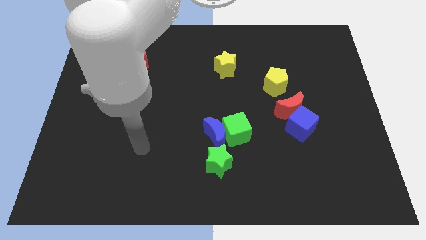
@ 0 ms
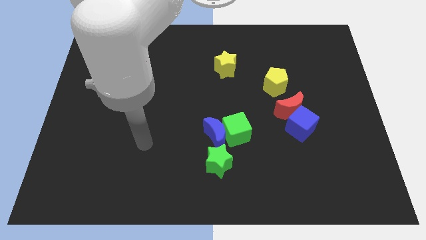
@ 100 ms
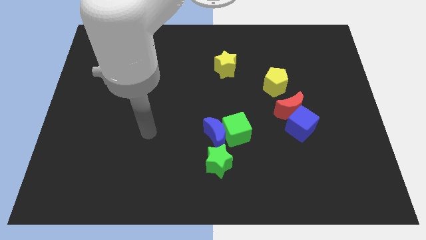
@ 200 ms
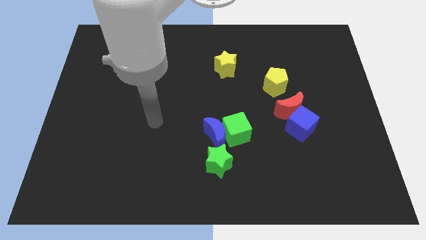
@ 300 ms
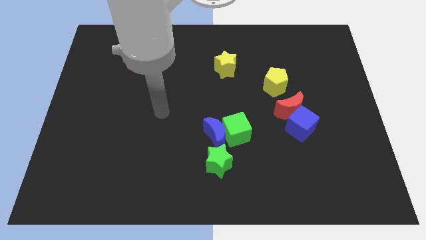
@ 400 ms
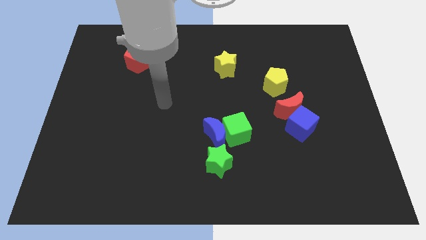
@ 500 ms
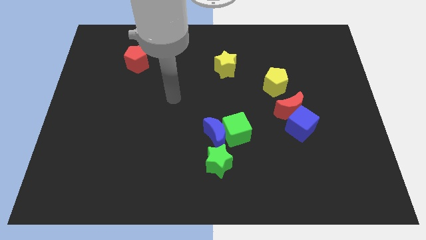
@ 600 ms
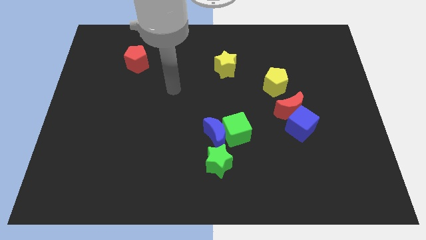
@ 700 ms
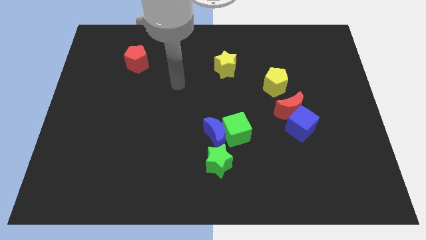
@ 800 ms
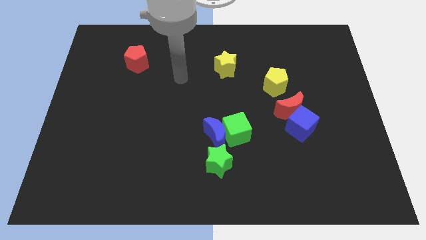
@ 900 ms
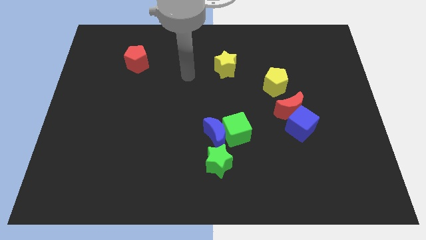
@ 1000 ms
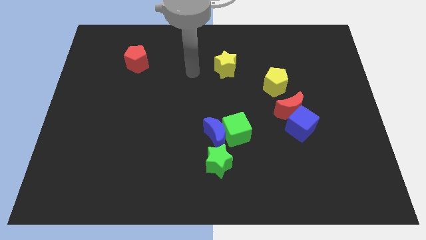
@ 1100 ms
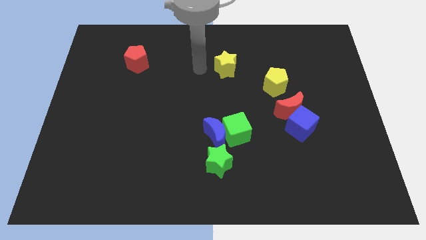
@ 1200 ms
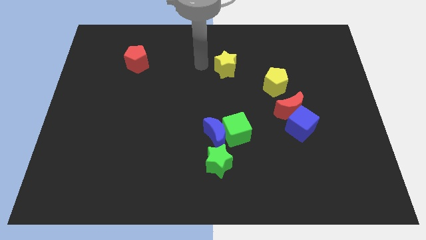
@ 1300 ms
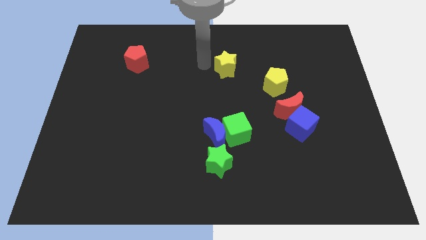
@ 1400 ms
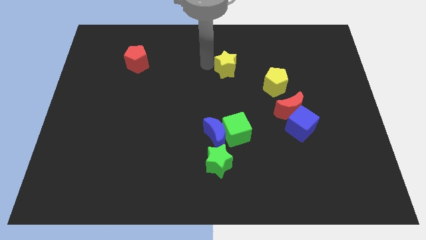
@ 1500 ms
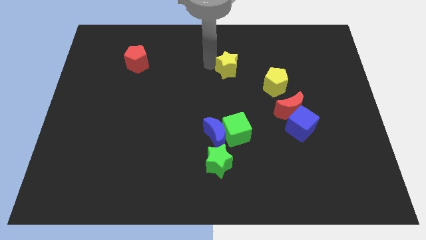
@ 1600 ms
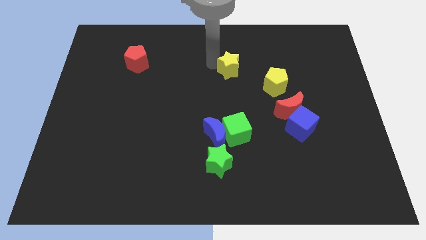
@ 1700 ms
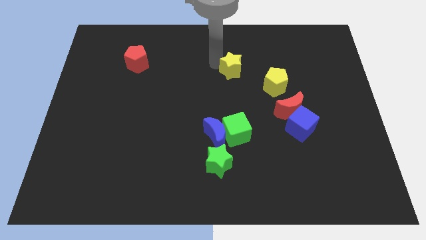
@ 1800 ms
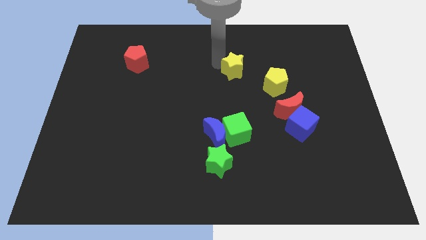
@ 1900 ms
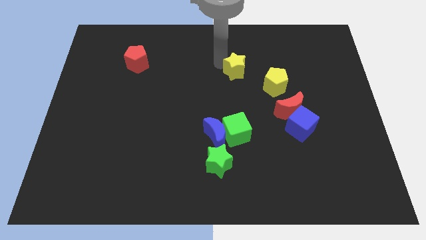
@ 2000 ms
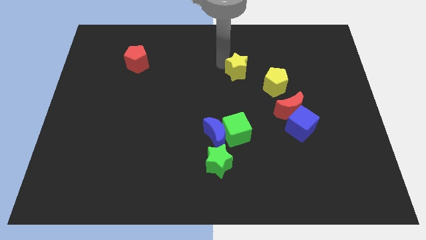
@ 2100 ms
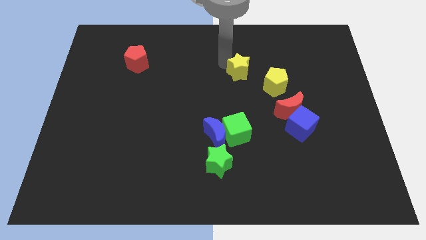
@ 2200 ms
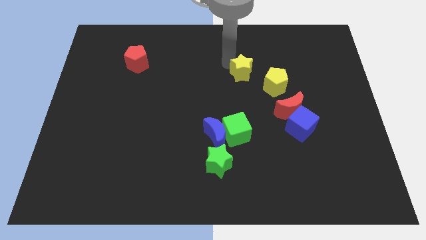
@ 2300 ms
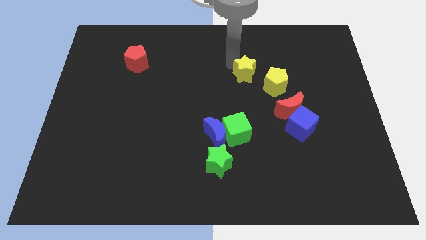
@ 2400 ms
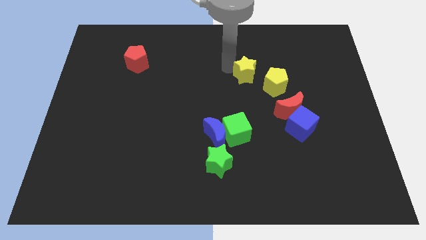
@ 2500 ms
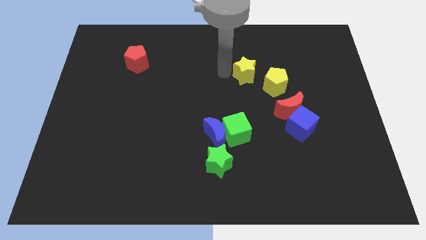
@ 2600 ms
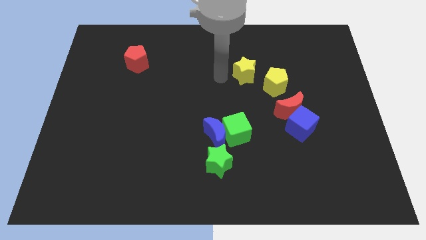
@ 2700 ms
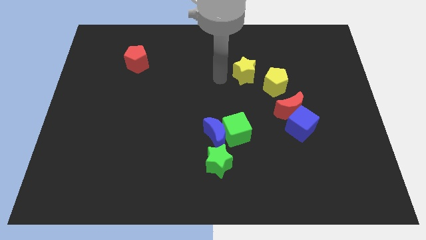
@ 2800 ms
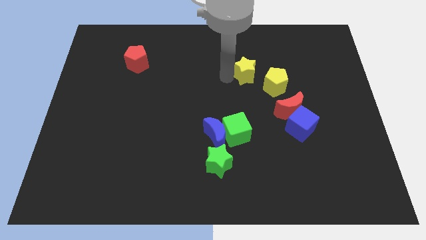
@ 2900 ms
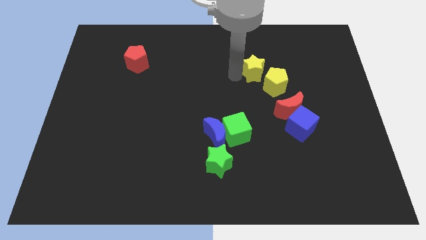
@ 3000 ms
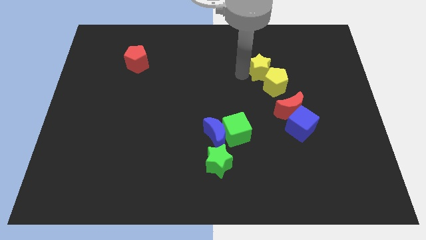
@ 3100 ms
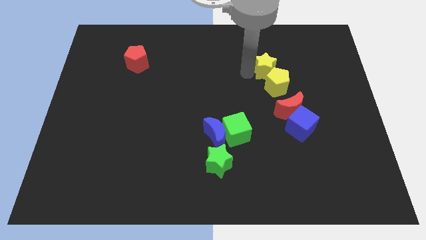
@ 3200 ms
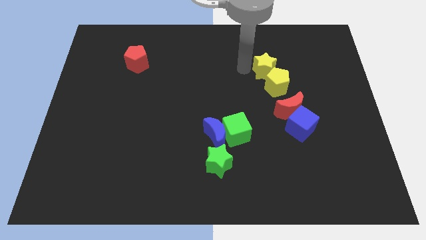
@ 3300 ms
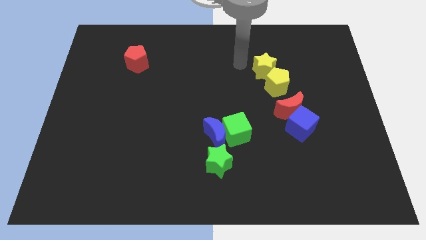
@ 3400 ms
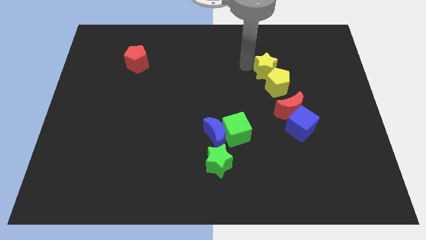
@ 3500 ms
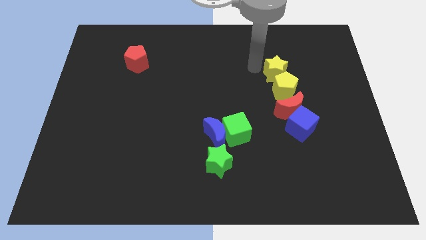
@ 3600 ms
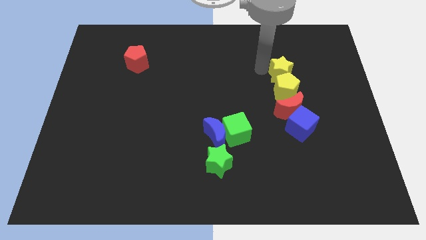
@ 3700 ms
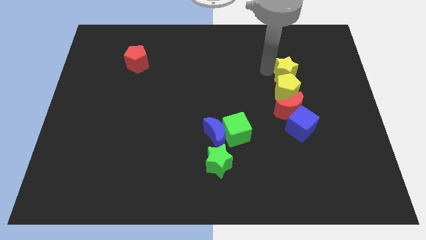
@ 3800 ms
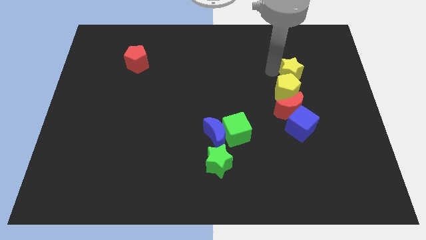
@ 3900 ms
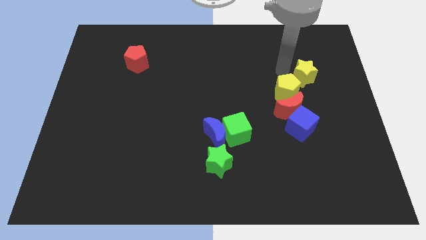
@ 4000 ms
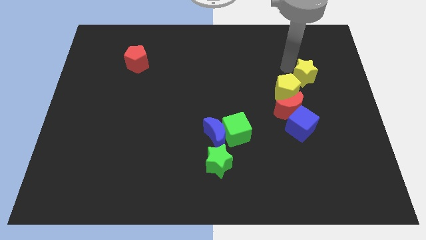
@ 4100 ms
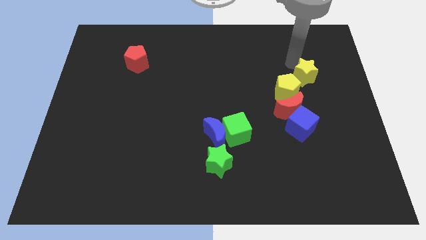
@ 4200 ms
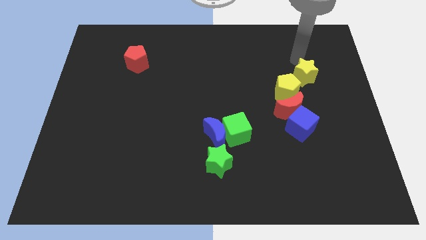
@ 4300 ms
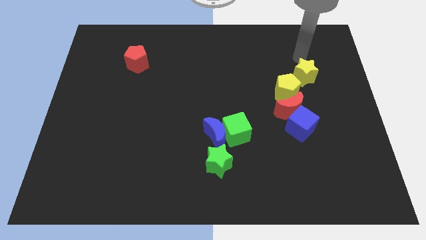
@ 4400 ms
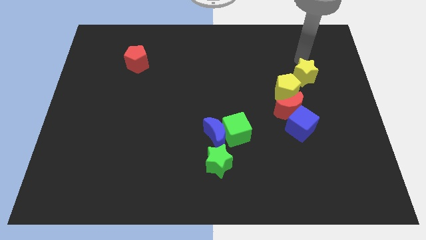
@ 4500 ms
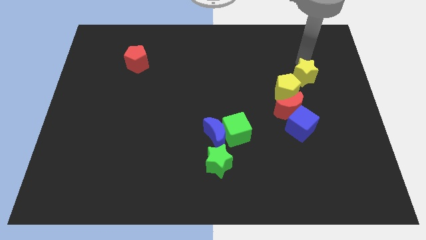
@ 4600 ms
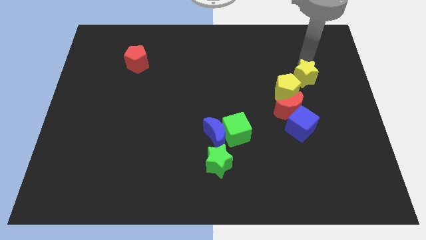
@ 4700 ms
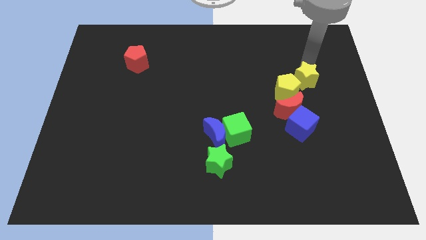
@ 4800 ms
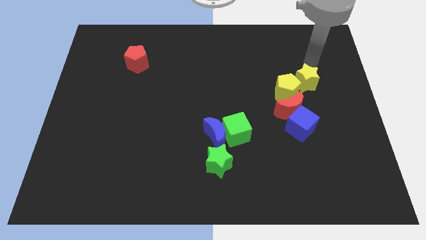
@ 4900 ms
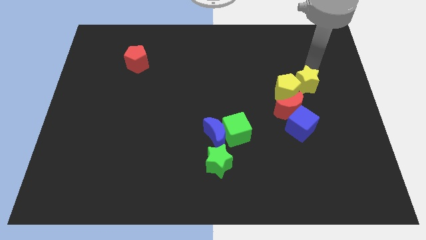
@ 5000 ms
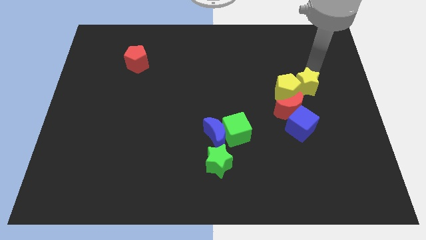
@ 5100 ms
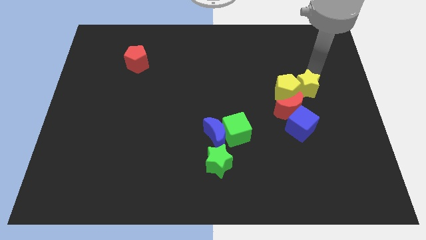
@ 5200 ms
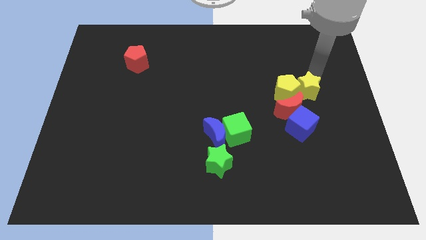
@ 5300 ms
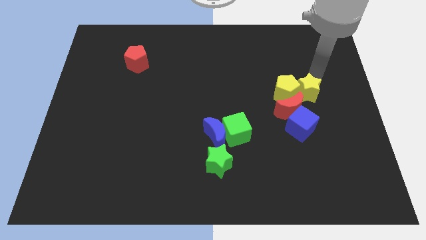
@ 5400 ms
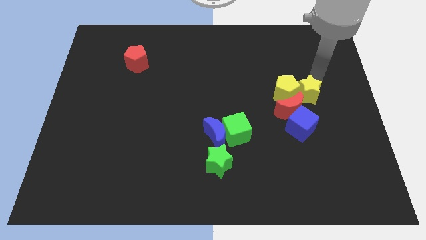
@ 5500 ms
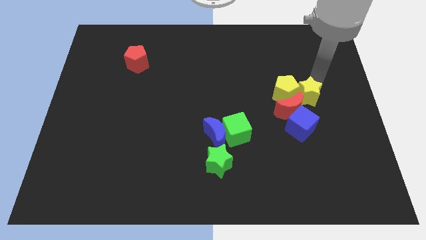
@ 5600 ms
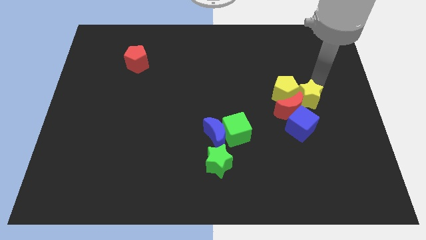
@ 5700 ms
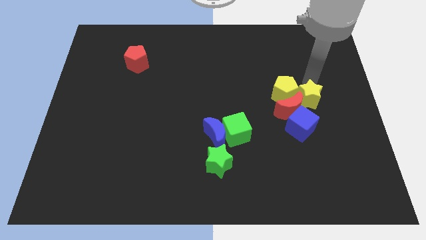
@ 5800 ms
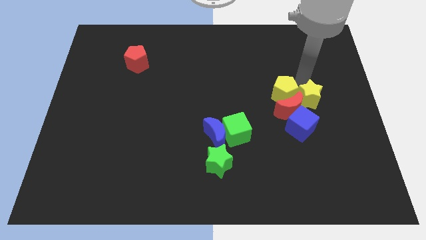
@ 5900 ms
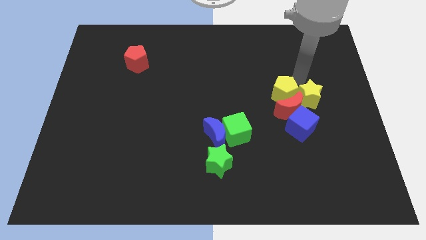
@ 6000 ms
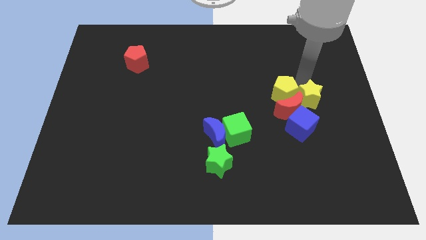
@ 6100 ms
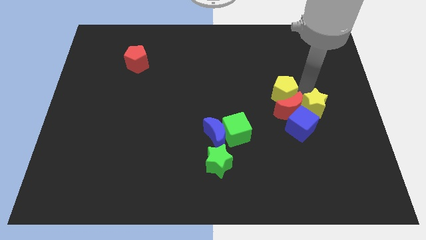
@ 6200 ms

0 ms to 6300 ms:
slide the yellow star downwards and right diagonally

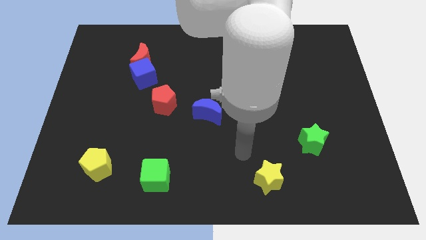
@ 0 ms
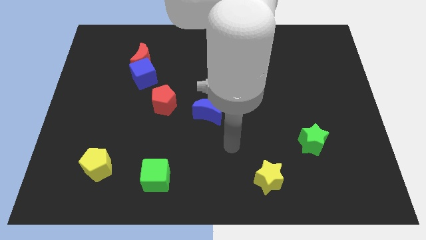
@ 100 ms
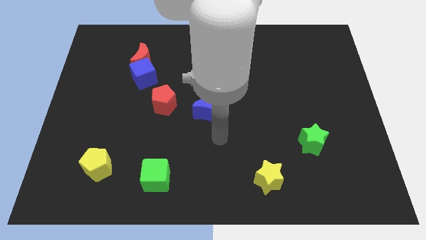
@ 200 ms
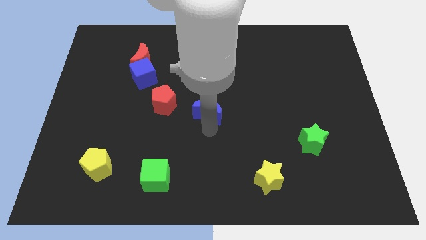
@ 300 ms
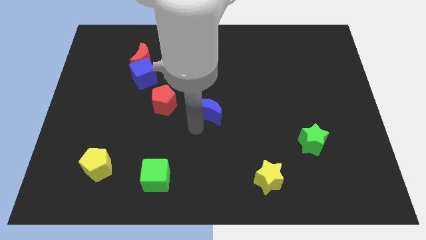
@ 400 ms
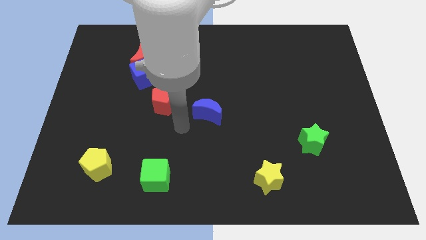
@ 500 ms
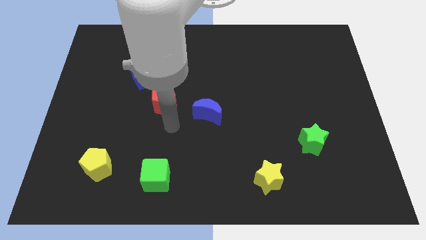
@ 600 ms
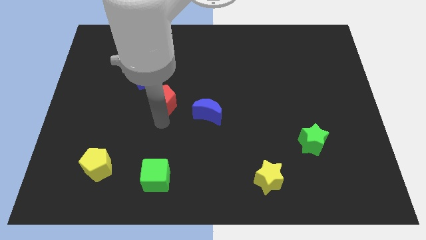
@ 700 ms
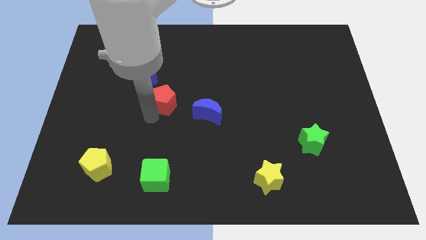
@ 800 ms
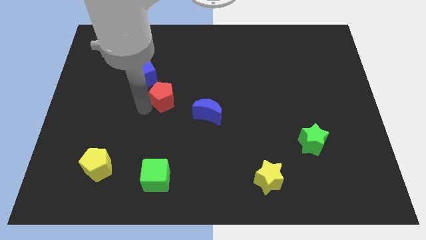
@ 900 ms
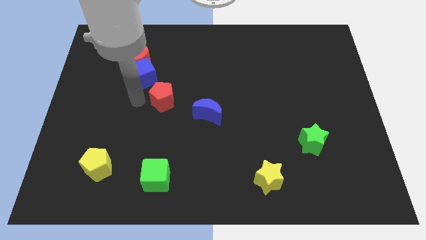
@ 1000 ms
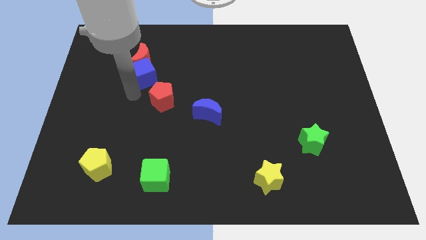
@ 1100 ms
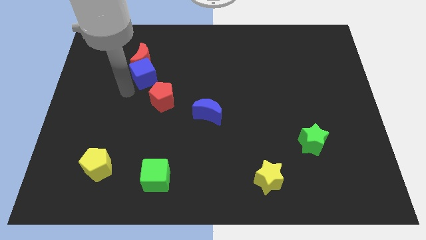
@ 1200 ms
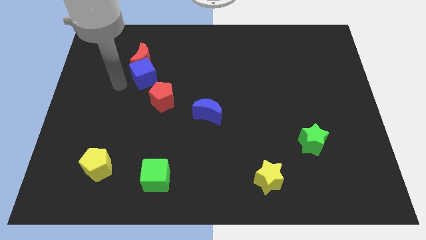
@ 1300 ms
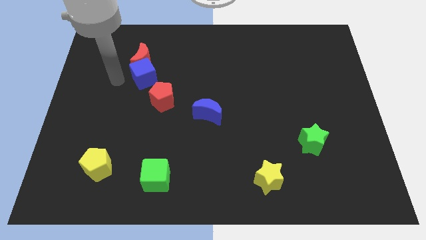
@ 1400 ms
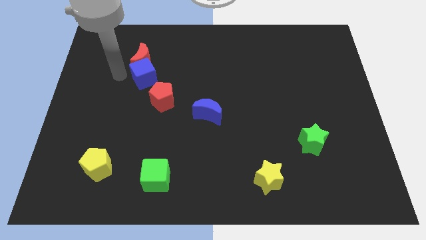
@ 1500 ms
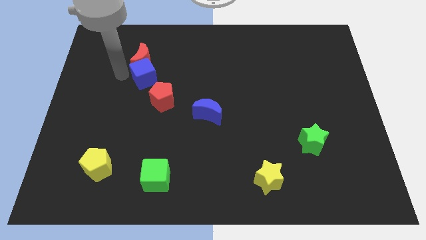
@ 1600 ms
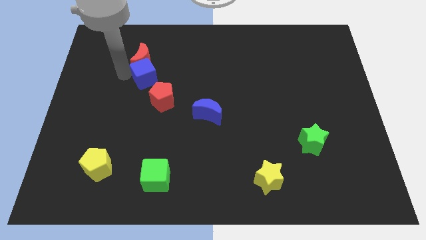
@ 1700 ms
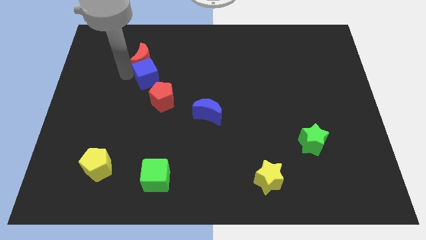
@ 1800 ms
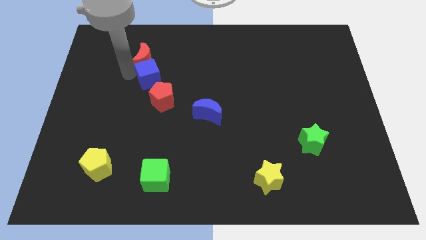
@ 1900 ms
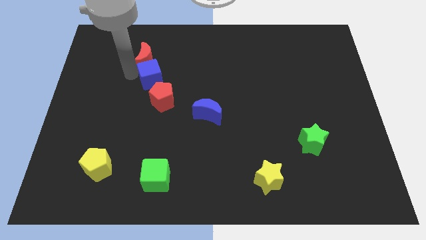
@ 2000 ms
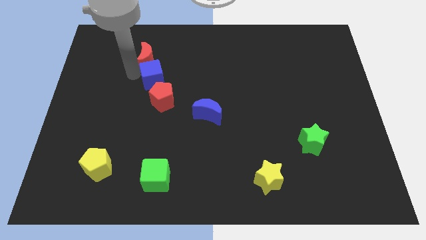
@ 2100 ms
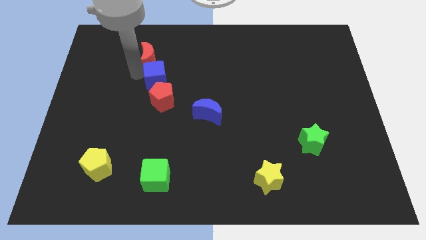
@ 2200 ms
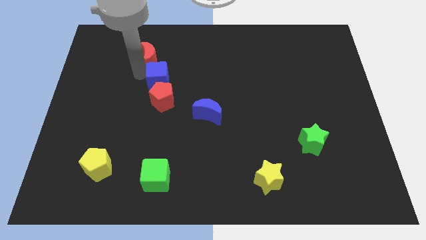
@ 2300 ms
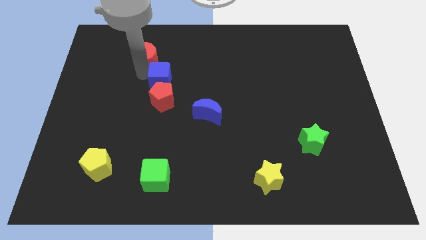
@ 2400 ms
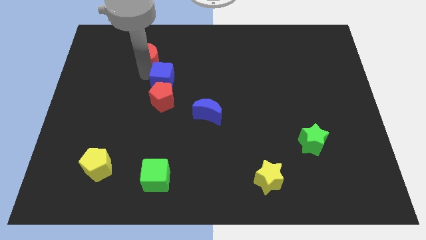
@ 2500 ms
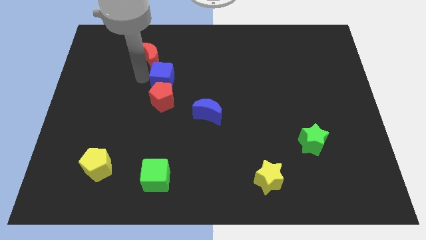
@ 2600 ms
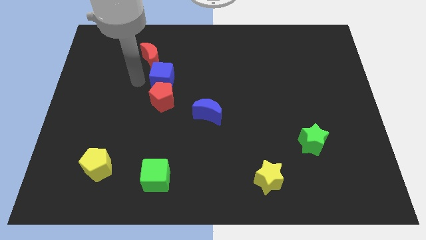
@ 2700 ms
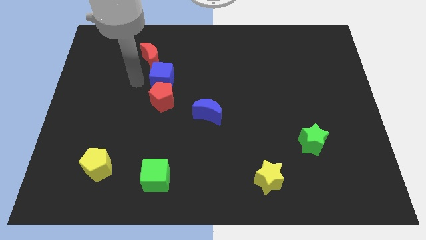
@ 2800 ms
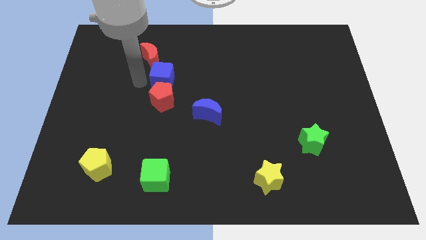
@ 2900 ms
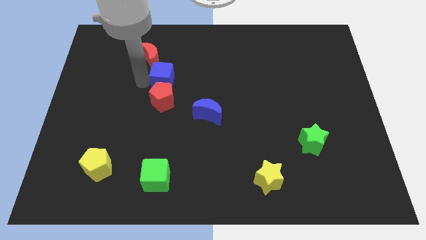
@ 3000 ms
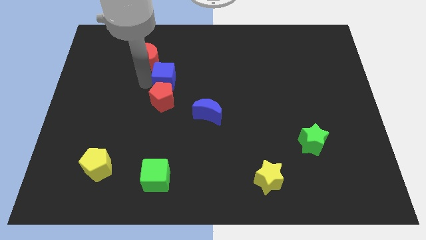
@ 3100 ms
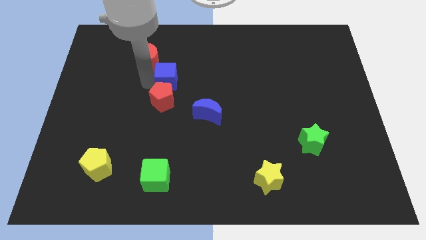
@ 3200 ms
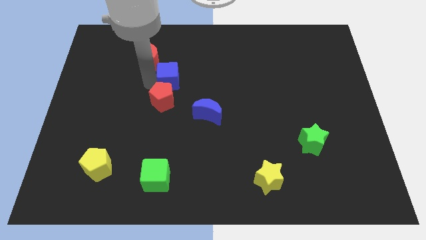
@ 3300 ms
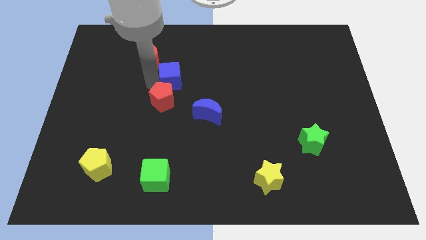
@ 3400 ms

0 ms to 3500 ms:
slide the blue cube to the right a bit
